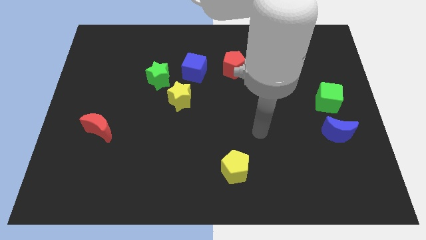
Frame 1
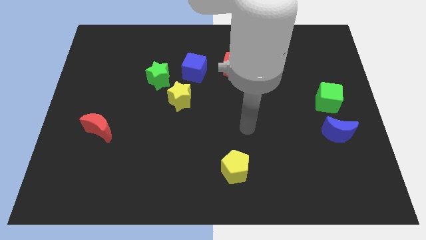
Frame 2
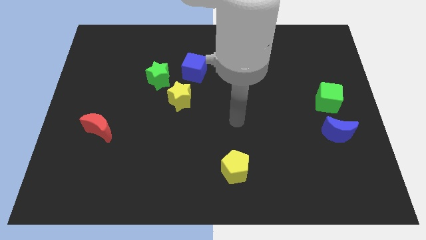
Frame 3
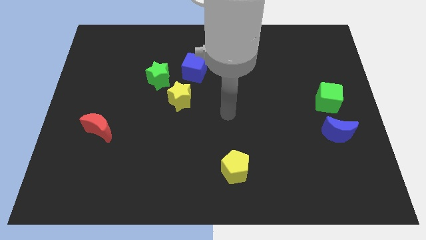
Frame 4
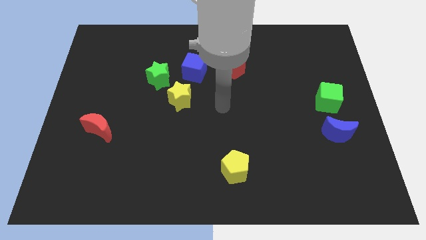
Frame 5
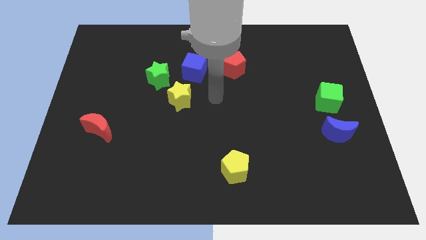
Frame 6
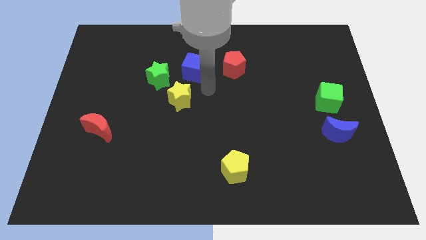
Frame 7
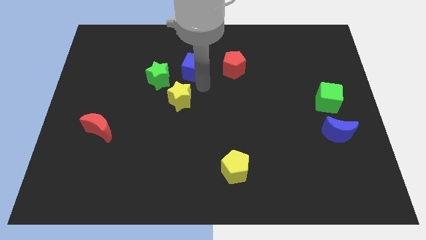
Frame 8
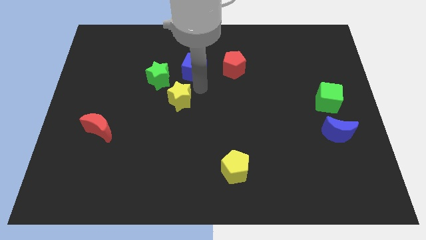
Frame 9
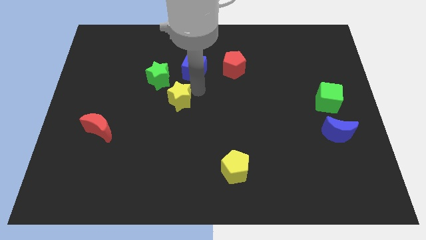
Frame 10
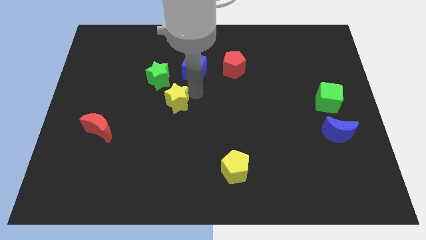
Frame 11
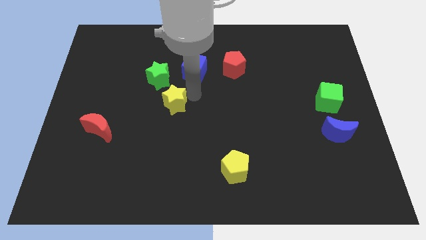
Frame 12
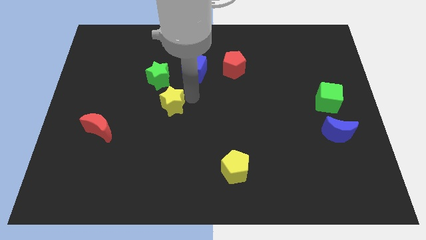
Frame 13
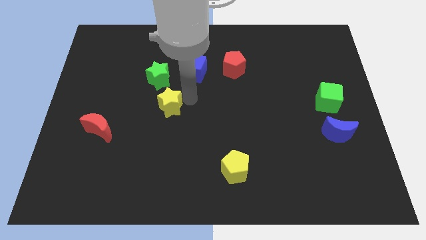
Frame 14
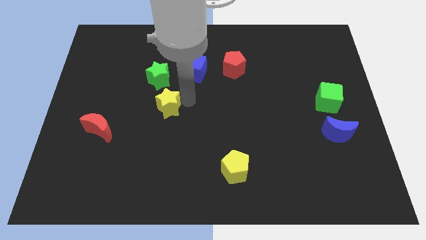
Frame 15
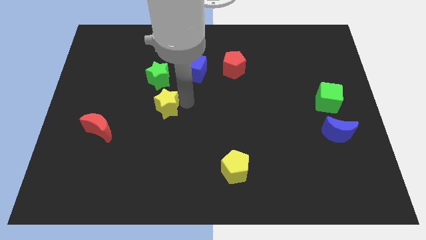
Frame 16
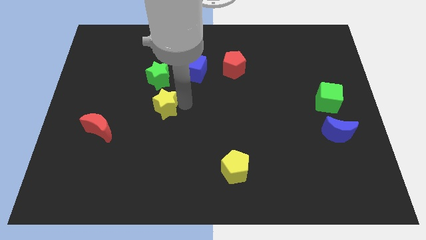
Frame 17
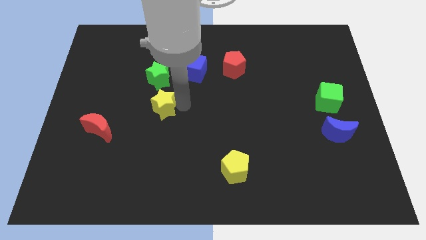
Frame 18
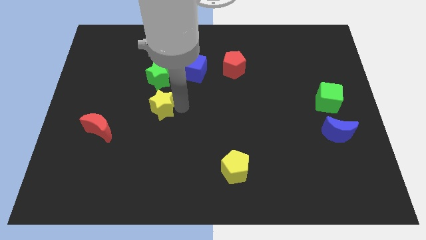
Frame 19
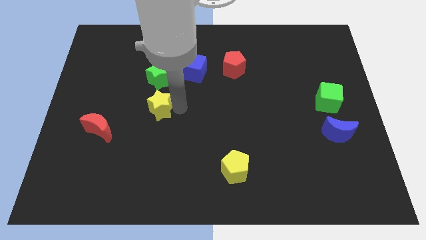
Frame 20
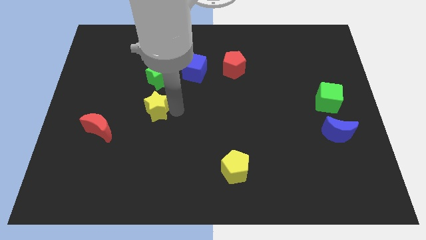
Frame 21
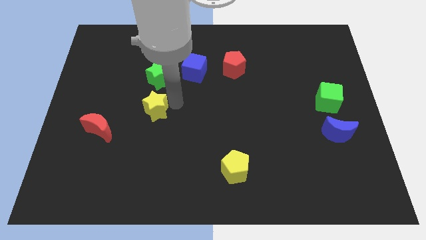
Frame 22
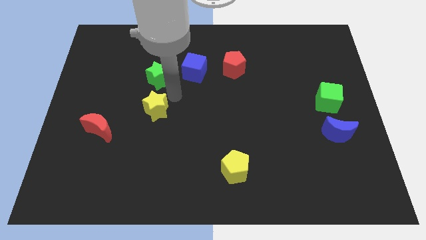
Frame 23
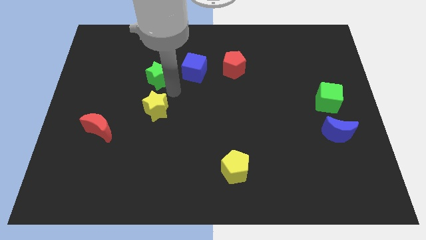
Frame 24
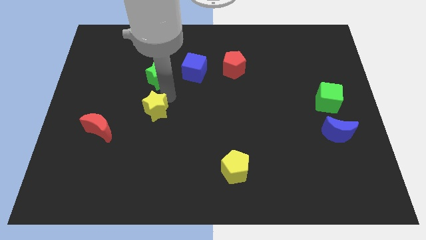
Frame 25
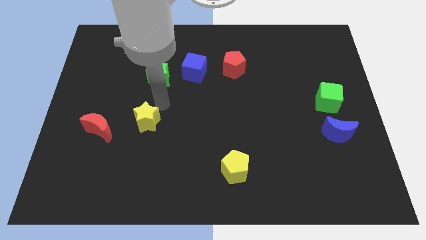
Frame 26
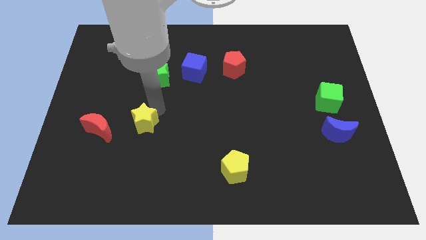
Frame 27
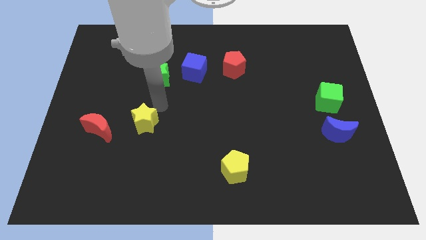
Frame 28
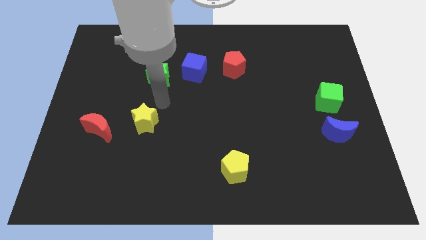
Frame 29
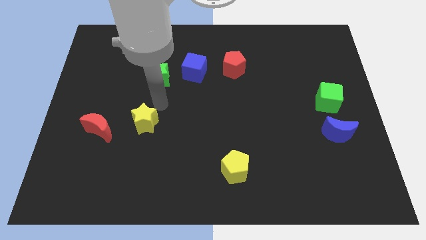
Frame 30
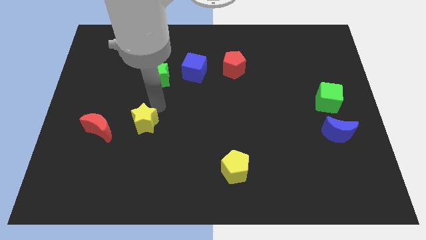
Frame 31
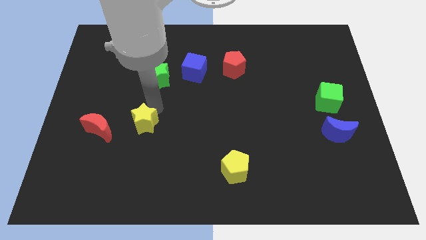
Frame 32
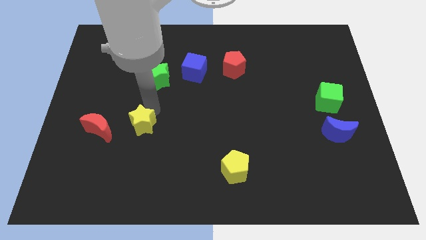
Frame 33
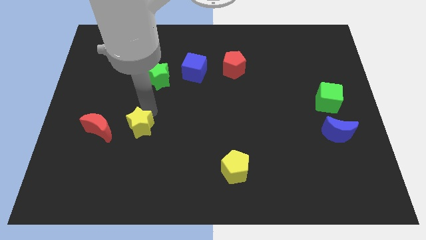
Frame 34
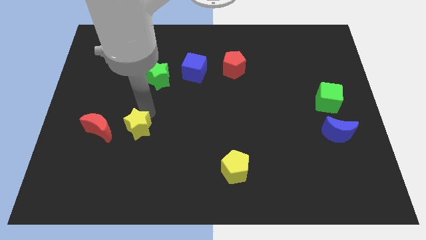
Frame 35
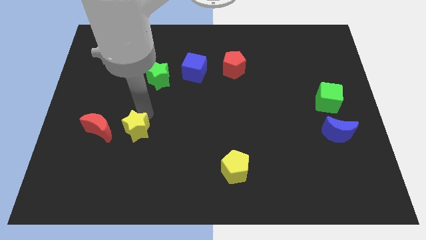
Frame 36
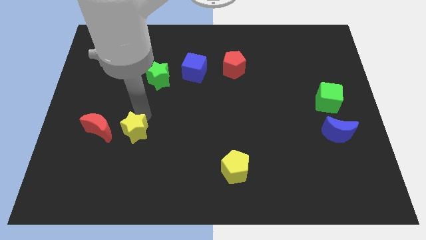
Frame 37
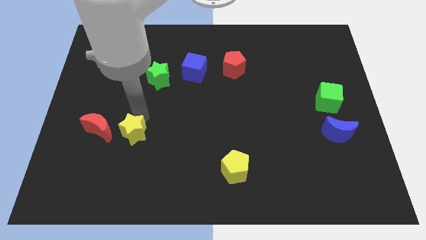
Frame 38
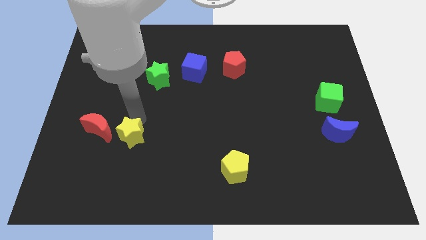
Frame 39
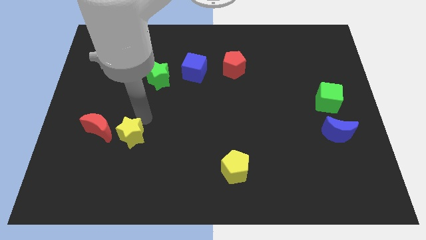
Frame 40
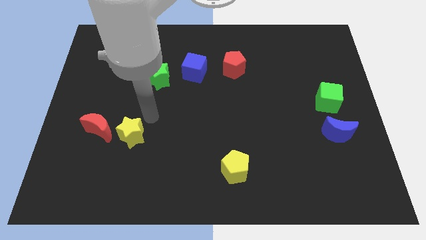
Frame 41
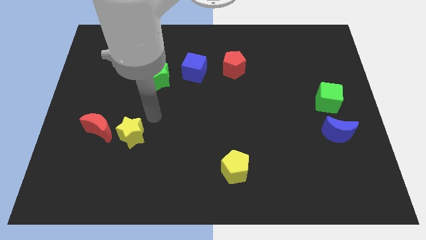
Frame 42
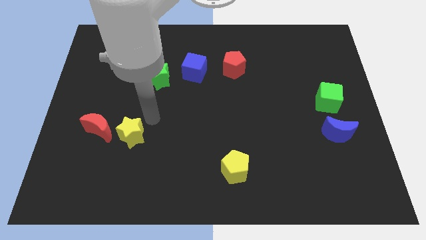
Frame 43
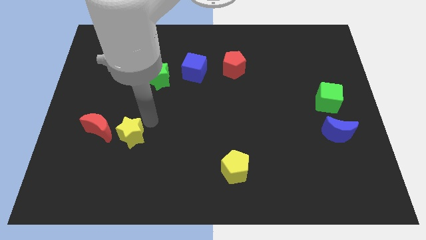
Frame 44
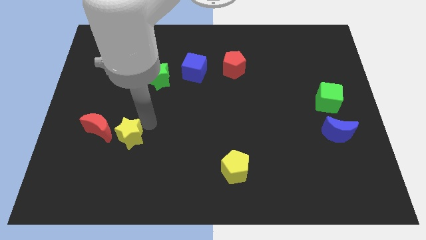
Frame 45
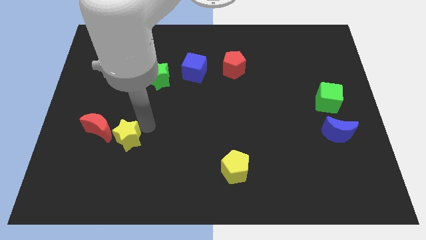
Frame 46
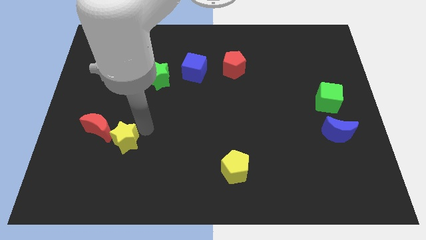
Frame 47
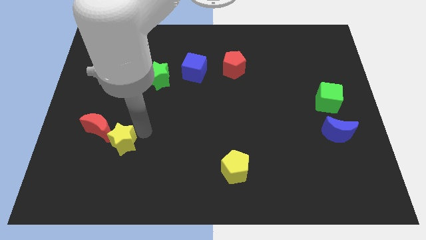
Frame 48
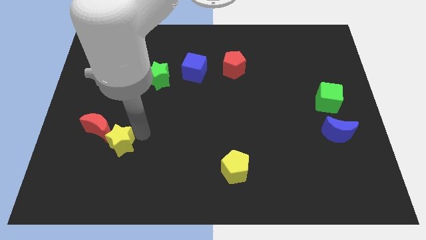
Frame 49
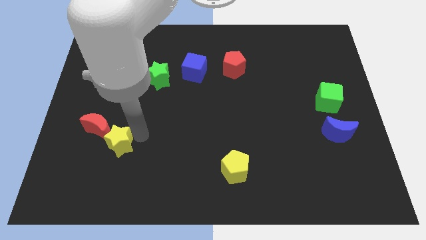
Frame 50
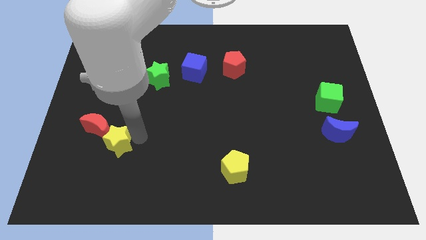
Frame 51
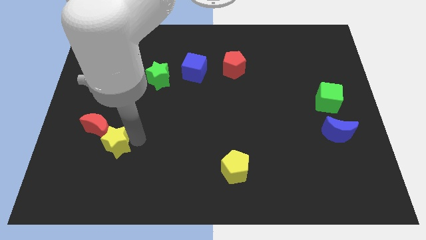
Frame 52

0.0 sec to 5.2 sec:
slide the yellow star to the bottom of the red moon

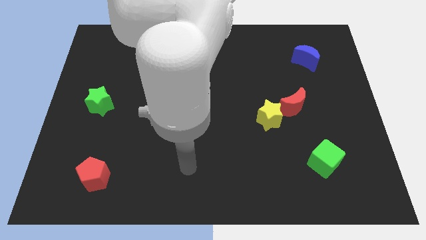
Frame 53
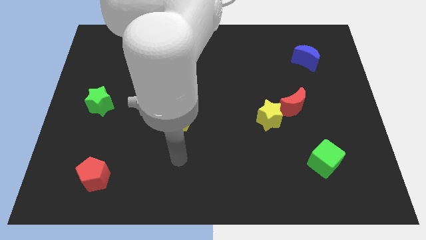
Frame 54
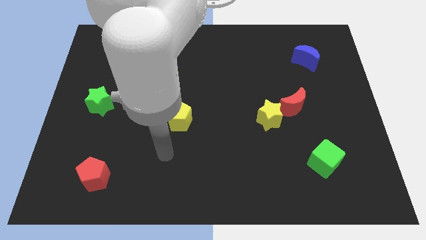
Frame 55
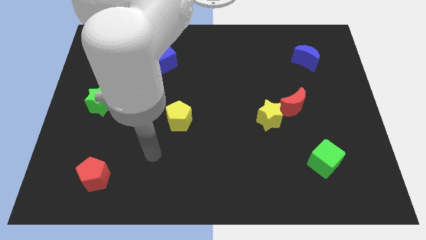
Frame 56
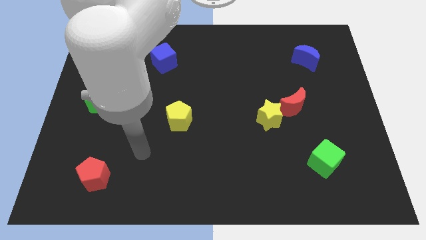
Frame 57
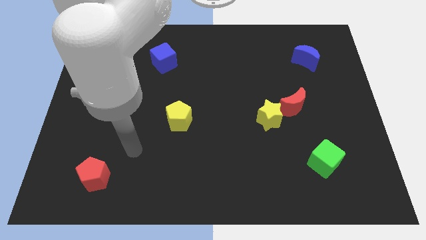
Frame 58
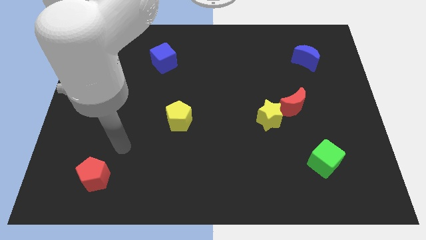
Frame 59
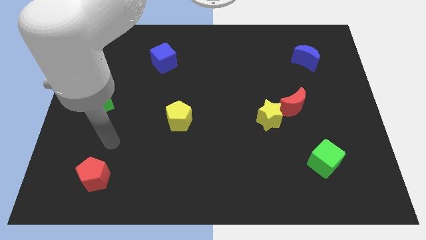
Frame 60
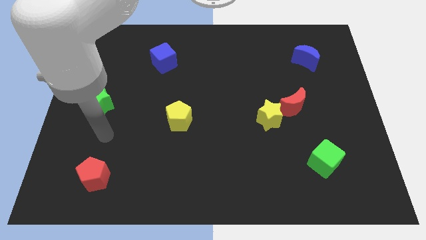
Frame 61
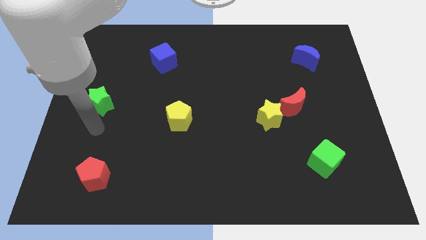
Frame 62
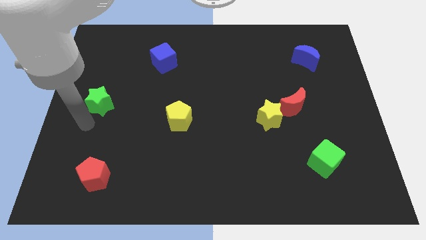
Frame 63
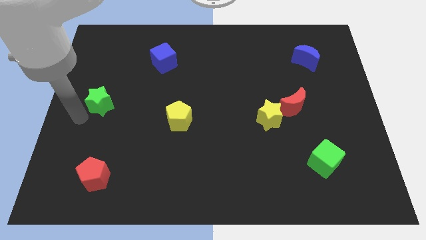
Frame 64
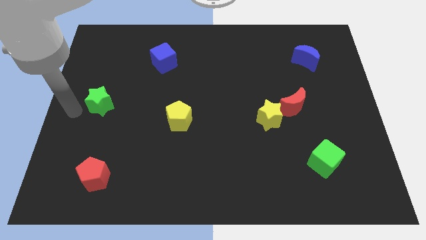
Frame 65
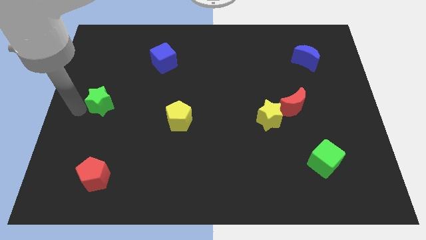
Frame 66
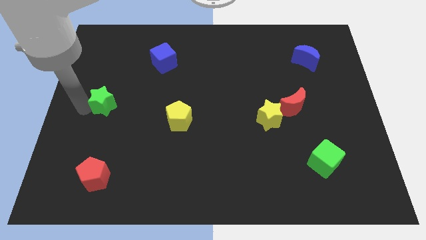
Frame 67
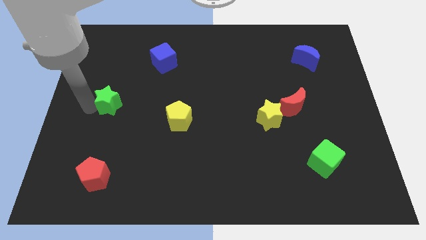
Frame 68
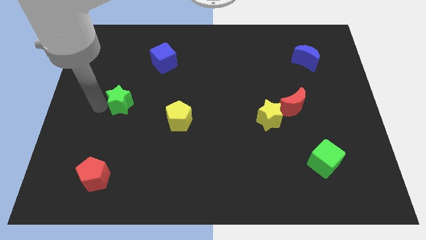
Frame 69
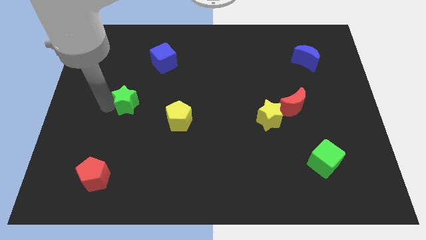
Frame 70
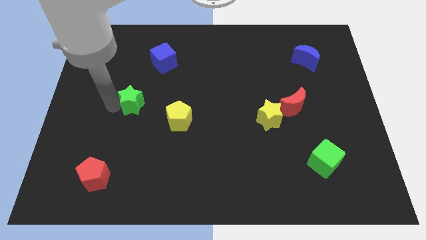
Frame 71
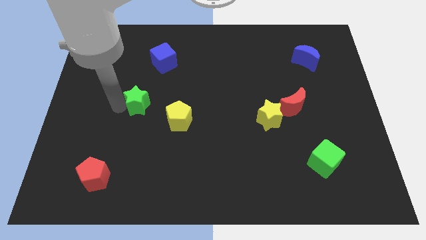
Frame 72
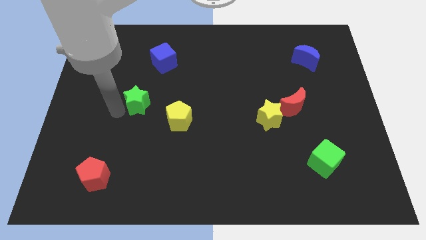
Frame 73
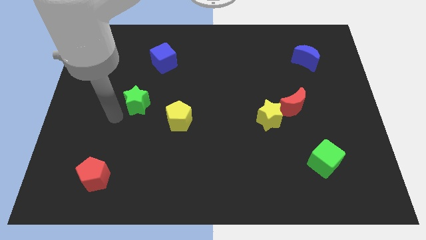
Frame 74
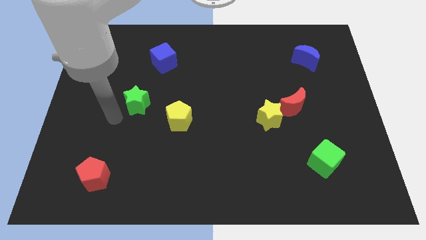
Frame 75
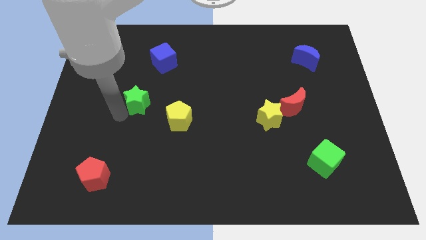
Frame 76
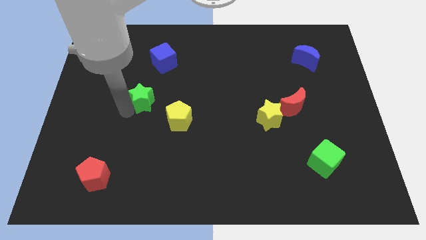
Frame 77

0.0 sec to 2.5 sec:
slide the green star below the blue cube

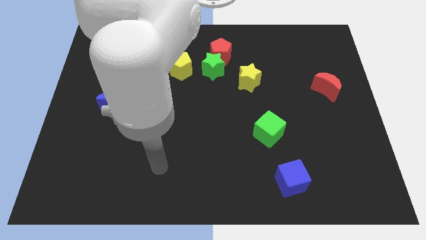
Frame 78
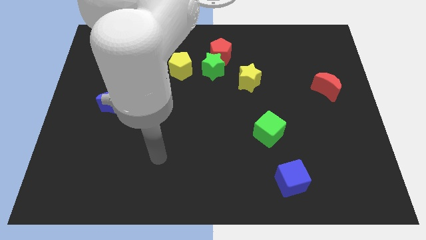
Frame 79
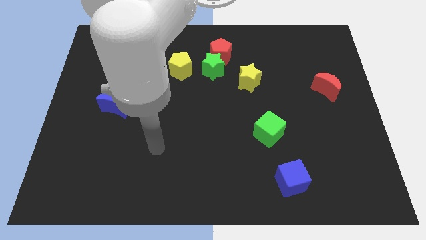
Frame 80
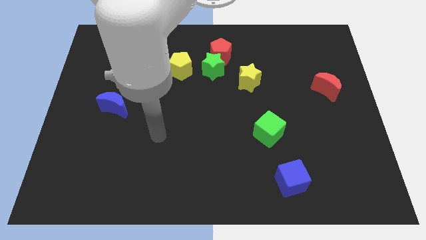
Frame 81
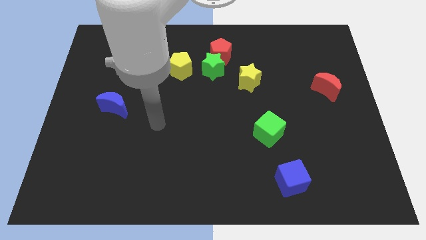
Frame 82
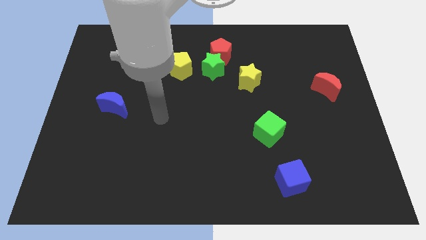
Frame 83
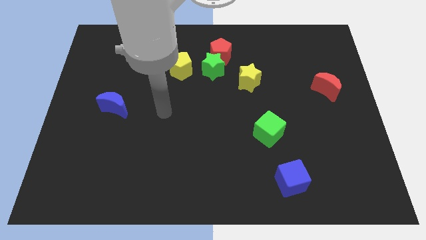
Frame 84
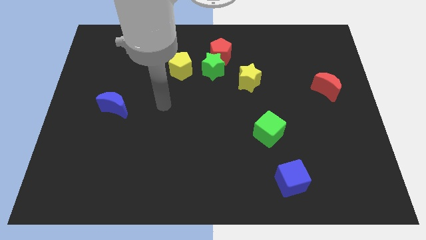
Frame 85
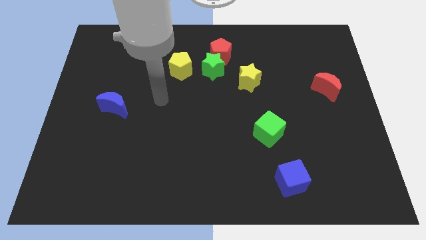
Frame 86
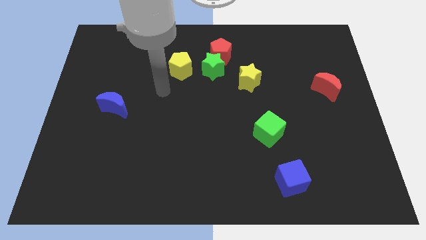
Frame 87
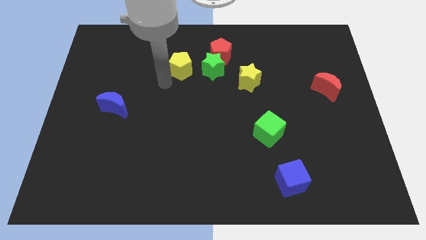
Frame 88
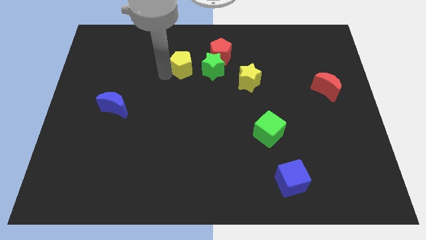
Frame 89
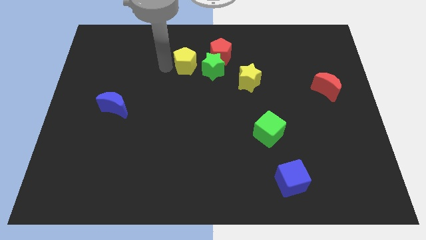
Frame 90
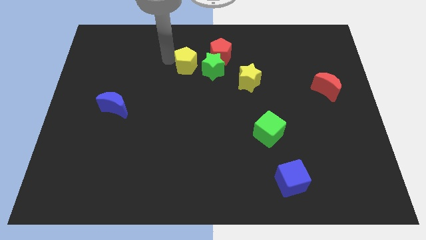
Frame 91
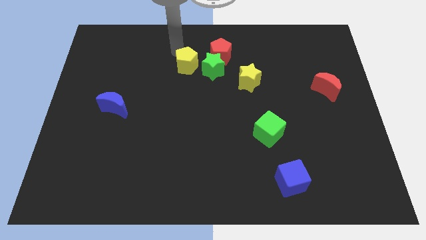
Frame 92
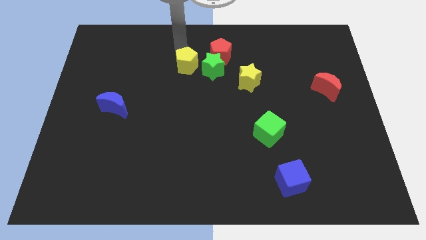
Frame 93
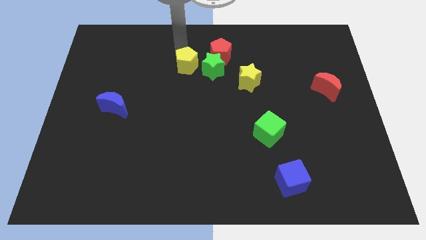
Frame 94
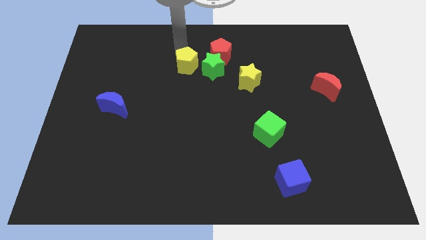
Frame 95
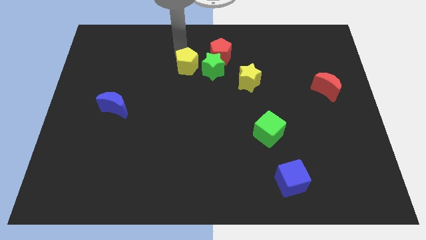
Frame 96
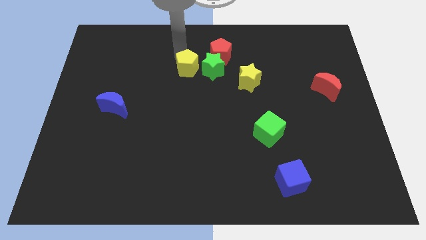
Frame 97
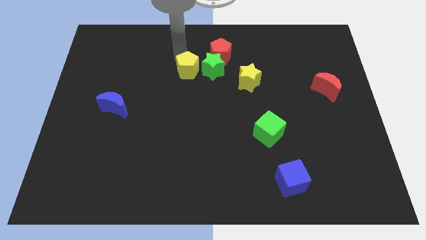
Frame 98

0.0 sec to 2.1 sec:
move the yellow pentagon to the bottom left side of the green star
